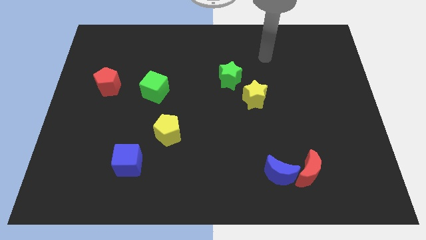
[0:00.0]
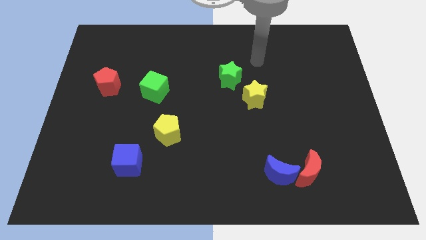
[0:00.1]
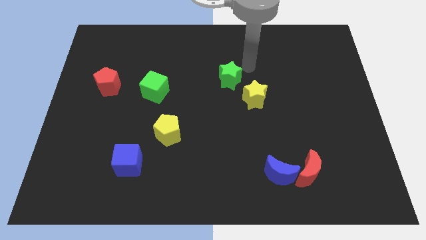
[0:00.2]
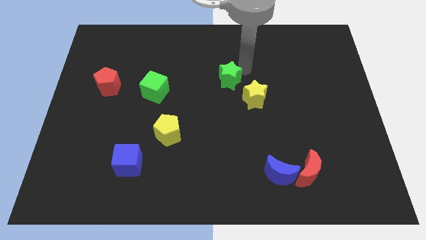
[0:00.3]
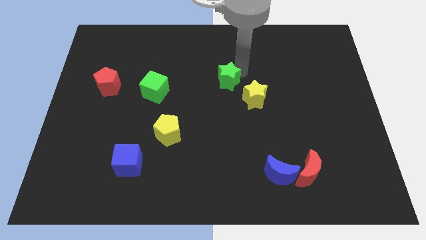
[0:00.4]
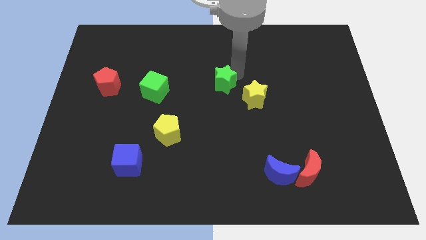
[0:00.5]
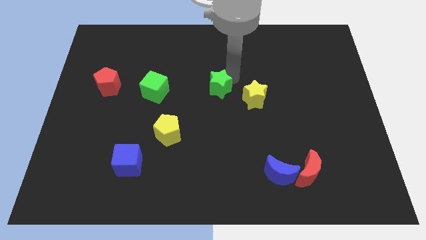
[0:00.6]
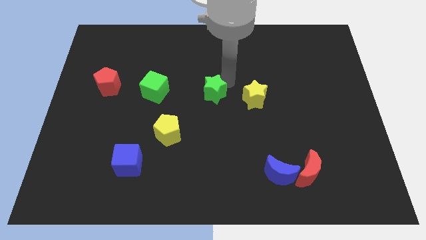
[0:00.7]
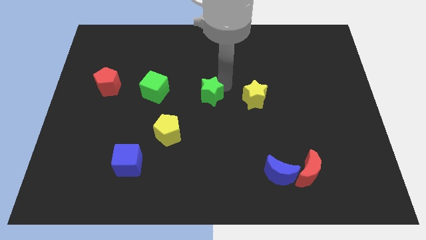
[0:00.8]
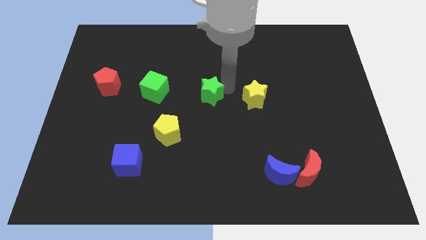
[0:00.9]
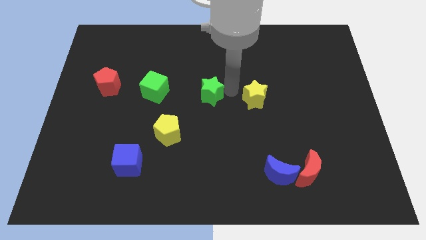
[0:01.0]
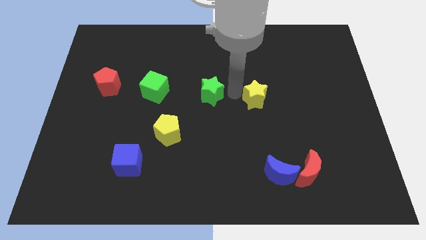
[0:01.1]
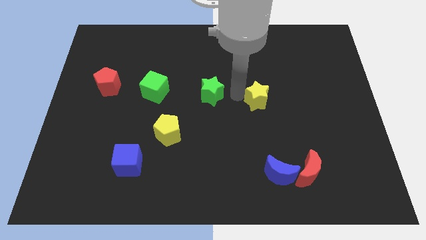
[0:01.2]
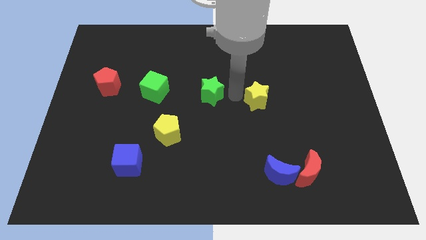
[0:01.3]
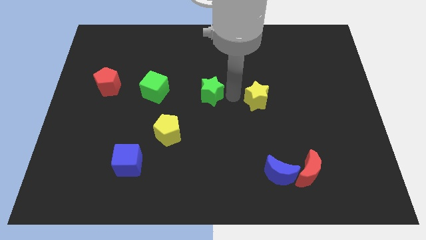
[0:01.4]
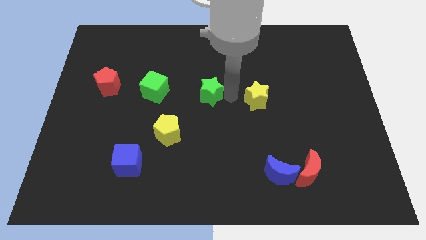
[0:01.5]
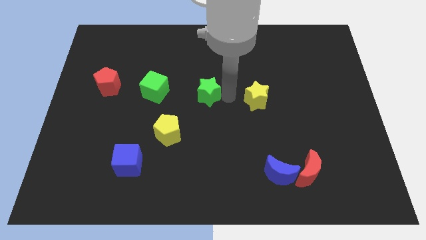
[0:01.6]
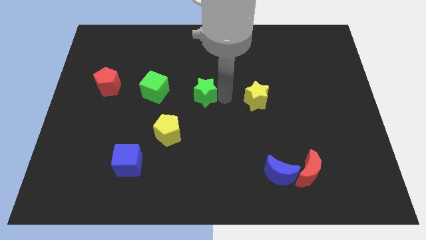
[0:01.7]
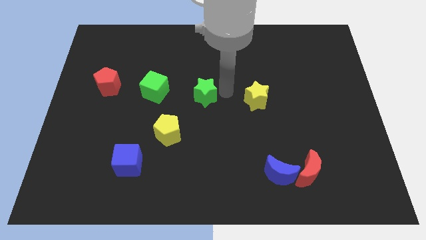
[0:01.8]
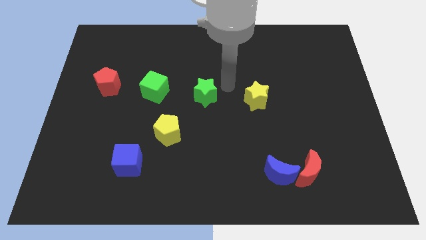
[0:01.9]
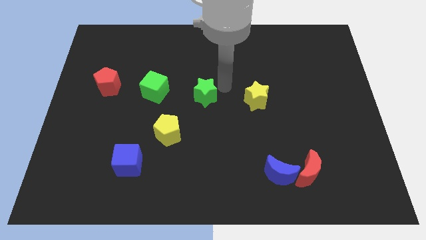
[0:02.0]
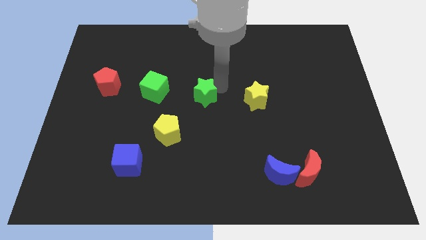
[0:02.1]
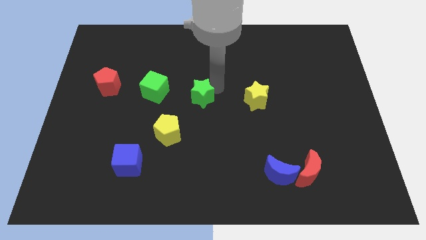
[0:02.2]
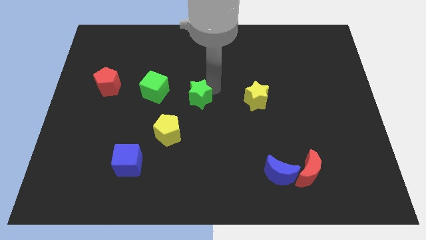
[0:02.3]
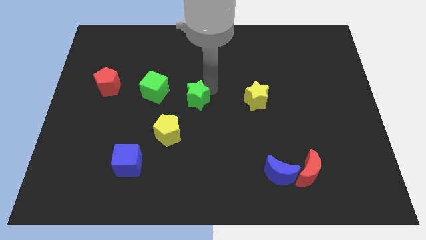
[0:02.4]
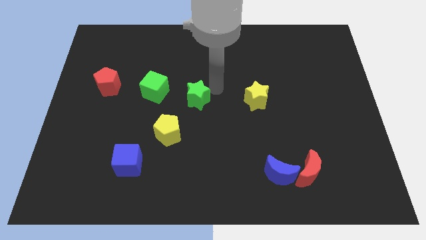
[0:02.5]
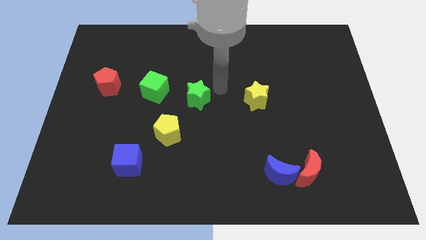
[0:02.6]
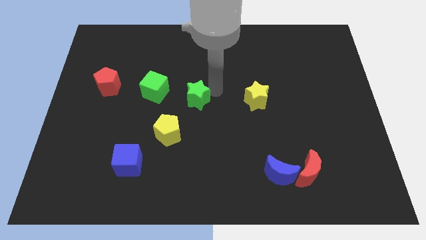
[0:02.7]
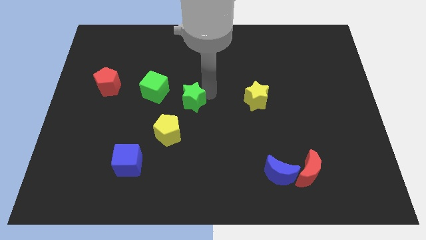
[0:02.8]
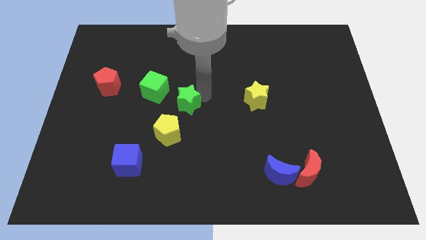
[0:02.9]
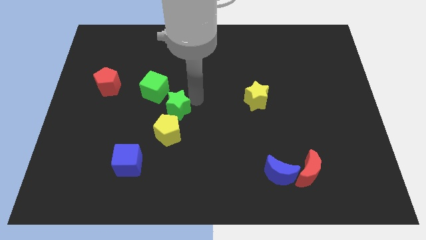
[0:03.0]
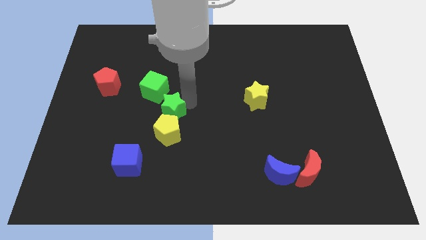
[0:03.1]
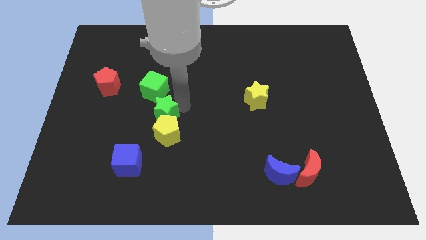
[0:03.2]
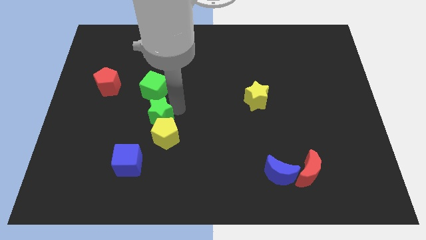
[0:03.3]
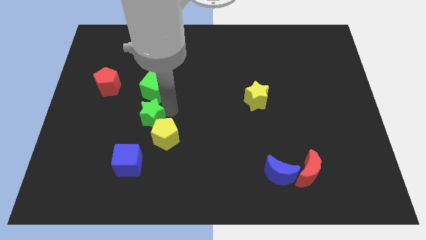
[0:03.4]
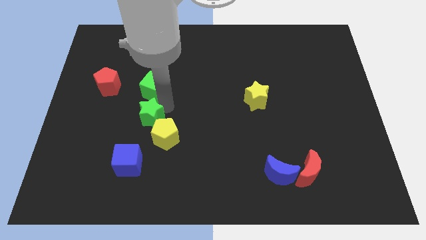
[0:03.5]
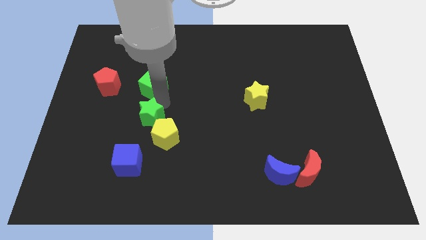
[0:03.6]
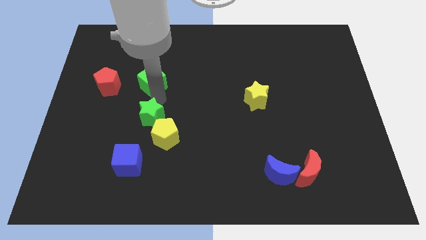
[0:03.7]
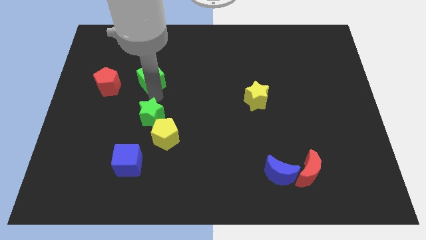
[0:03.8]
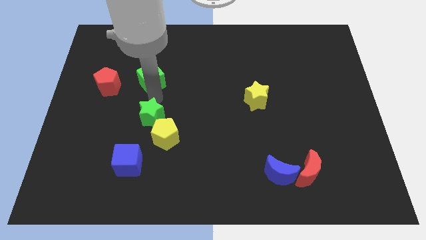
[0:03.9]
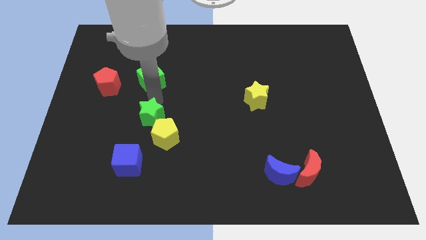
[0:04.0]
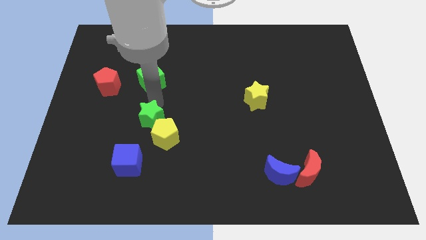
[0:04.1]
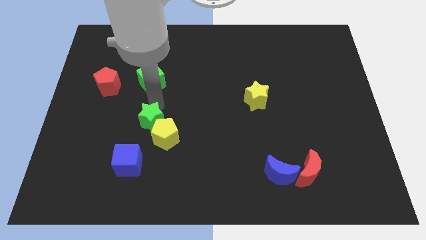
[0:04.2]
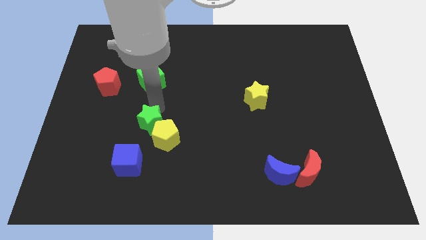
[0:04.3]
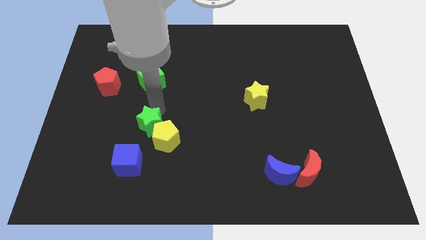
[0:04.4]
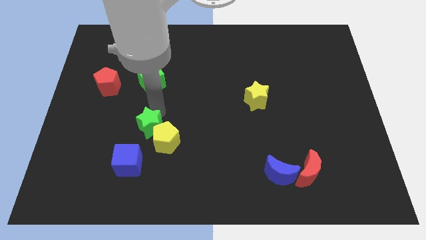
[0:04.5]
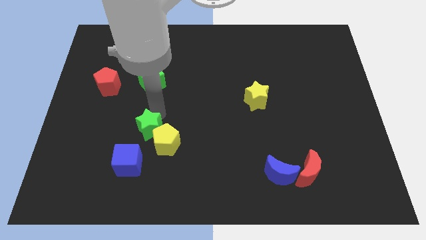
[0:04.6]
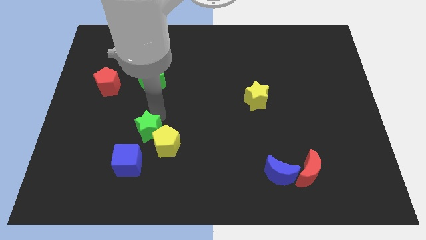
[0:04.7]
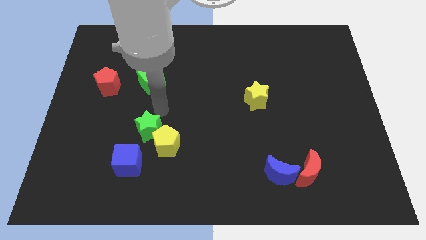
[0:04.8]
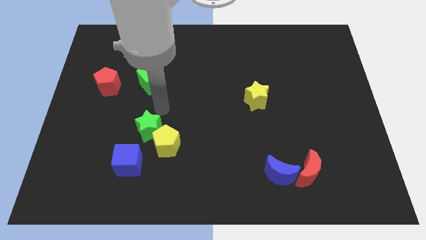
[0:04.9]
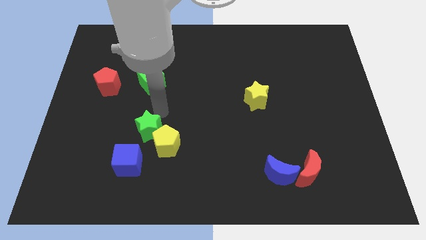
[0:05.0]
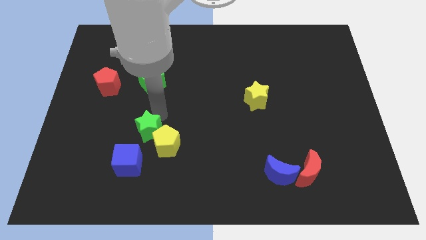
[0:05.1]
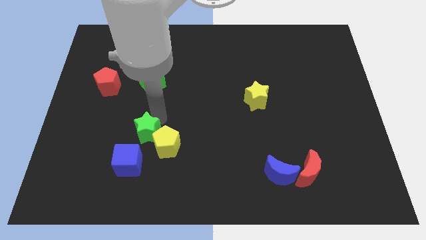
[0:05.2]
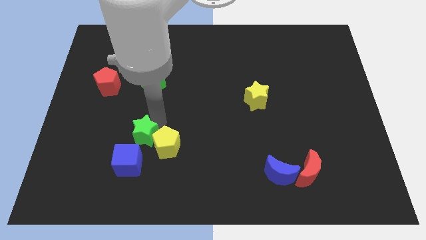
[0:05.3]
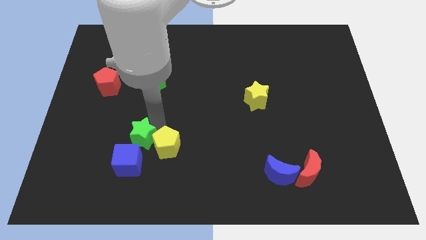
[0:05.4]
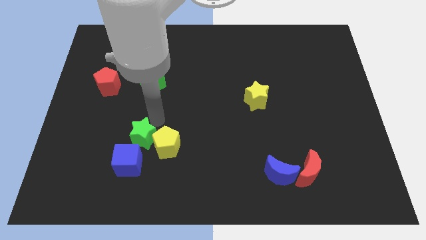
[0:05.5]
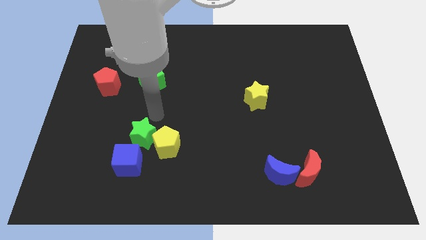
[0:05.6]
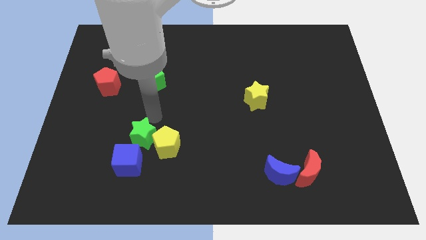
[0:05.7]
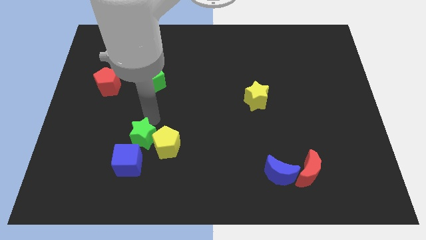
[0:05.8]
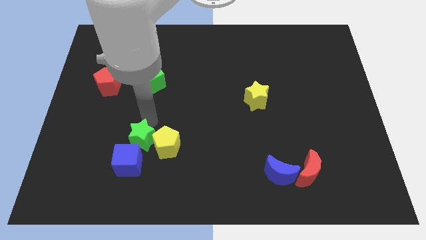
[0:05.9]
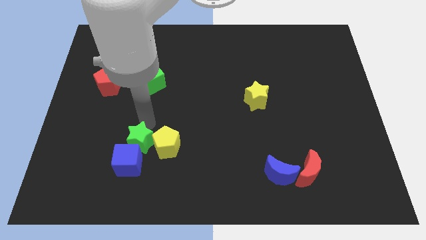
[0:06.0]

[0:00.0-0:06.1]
put the green star towards the blue cube

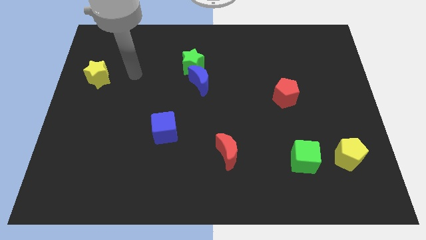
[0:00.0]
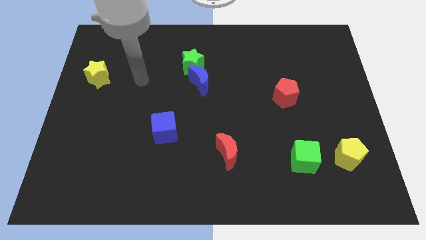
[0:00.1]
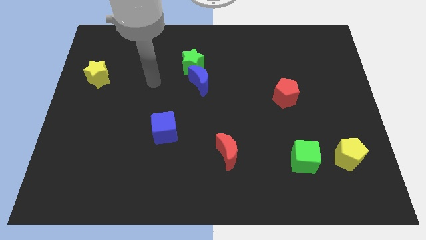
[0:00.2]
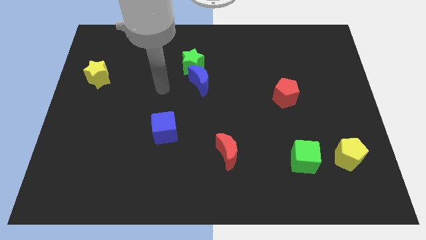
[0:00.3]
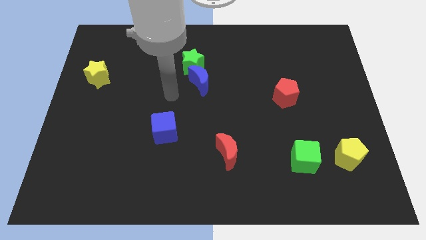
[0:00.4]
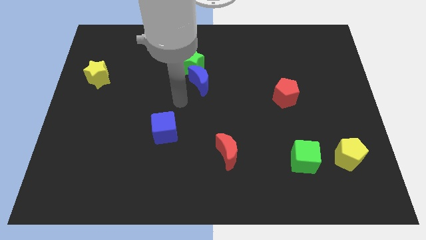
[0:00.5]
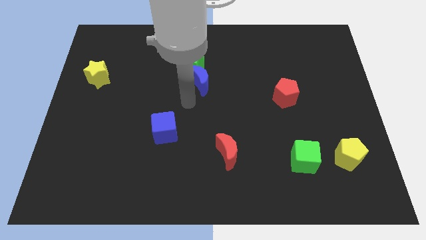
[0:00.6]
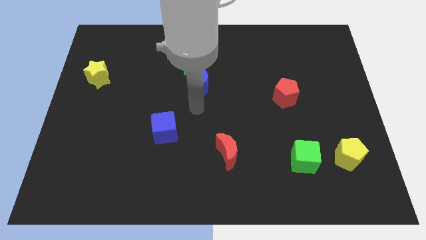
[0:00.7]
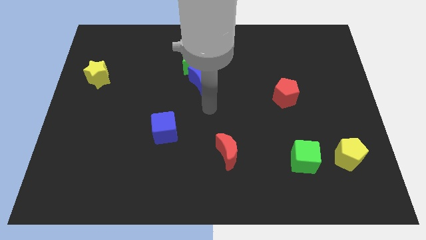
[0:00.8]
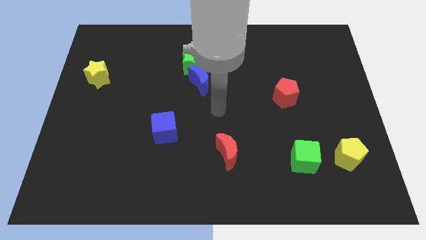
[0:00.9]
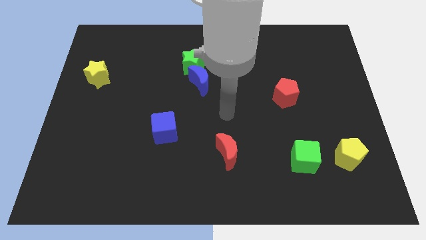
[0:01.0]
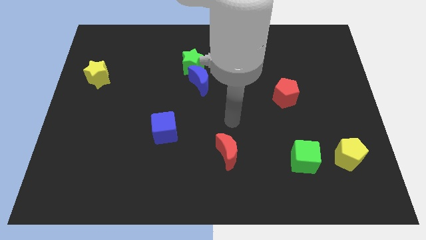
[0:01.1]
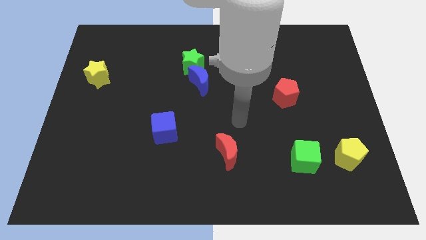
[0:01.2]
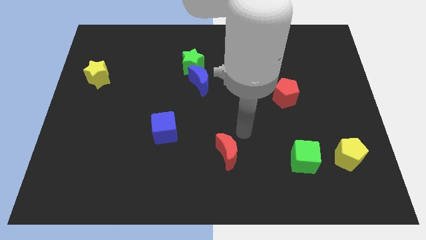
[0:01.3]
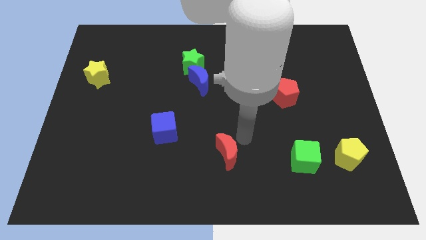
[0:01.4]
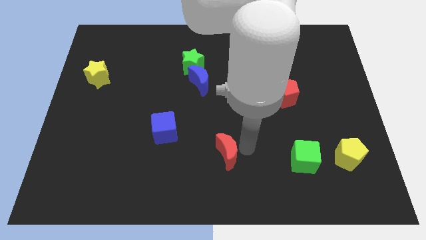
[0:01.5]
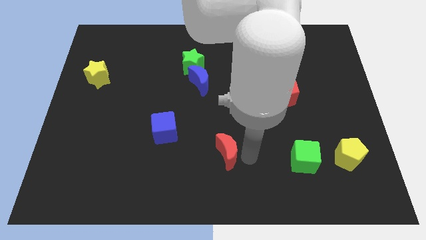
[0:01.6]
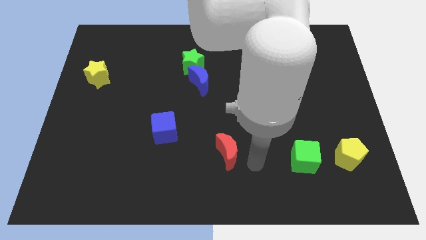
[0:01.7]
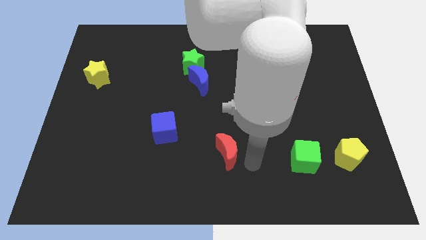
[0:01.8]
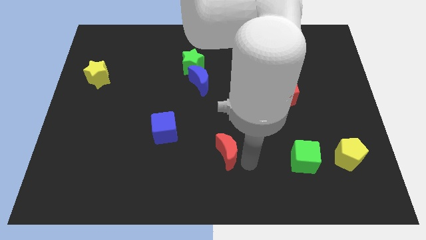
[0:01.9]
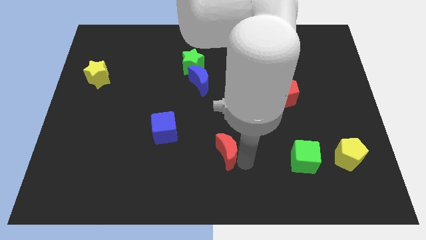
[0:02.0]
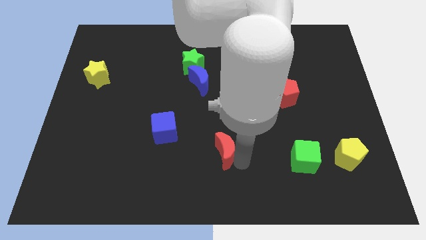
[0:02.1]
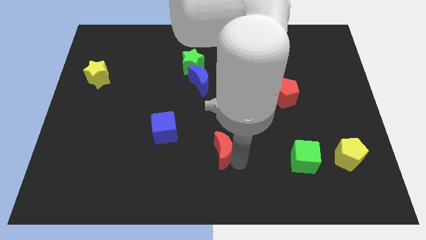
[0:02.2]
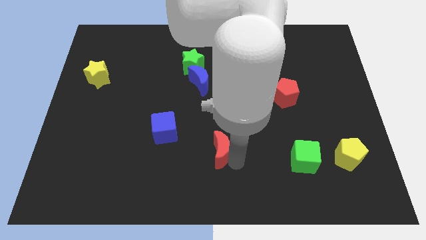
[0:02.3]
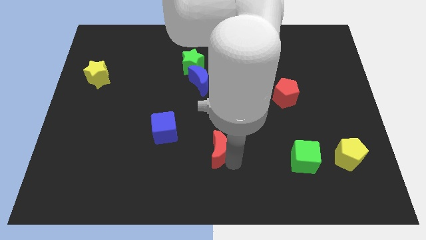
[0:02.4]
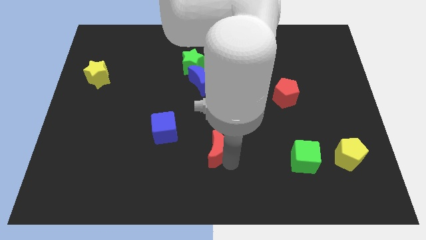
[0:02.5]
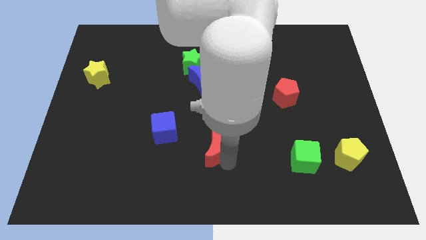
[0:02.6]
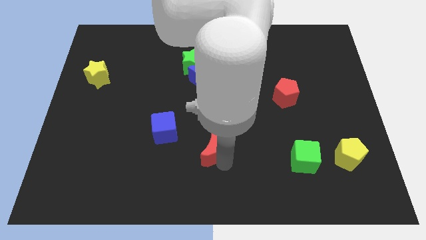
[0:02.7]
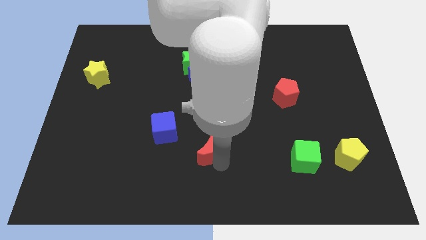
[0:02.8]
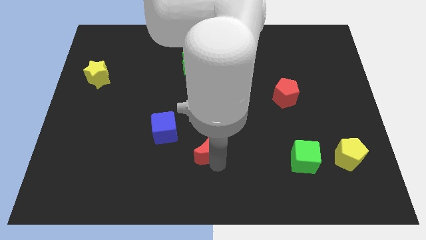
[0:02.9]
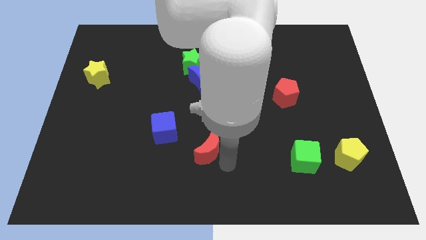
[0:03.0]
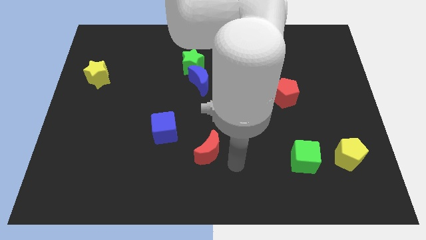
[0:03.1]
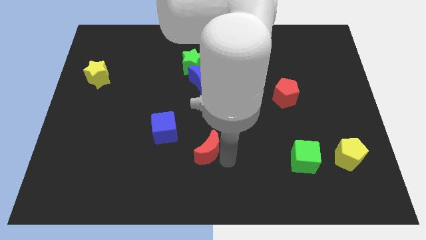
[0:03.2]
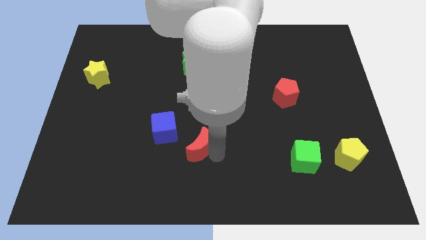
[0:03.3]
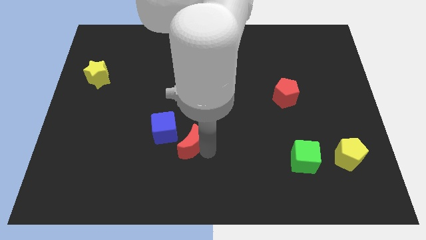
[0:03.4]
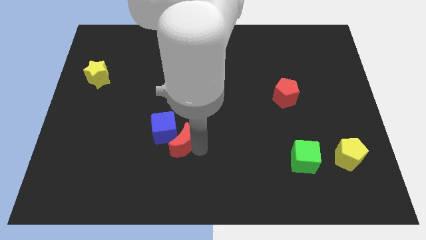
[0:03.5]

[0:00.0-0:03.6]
move the red moon next to the blue cube
